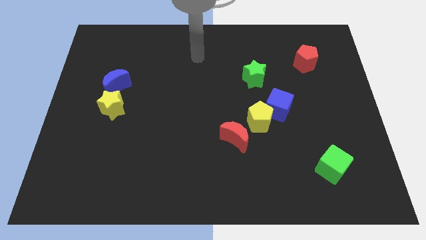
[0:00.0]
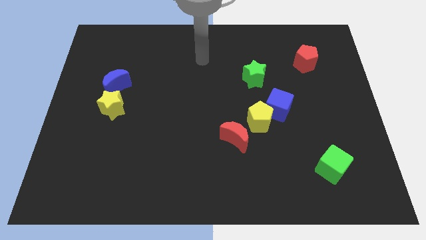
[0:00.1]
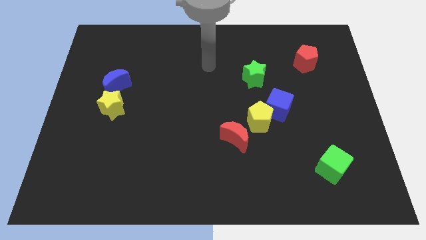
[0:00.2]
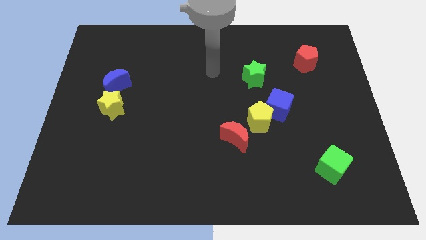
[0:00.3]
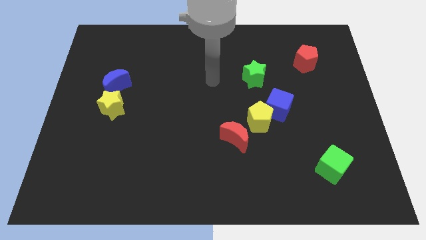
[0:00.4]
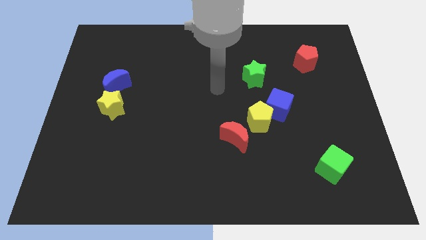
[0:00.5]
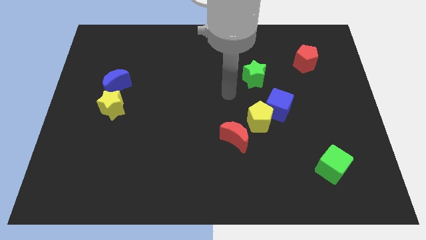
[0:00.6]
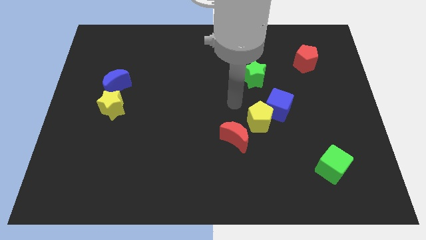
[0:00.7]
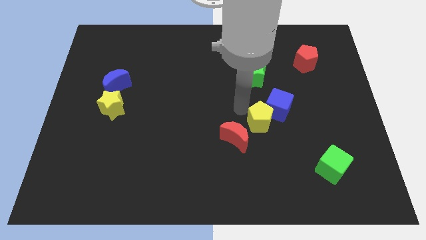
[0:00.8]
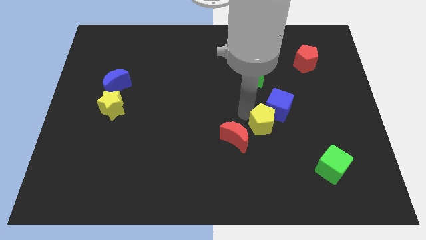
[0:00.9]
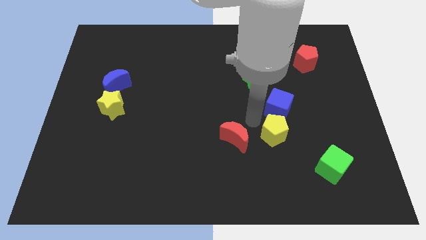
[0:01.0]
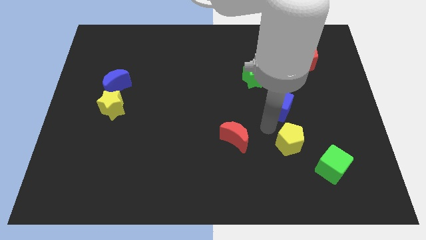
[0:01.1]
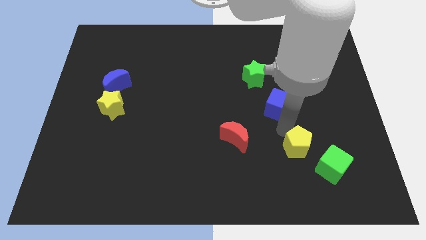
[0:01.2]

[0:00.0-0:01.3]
separate the blue cube from the yellow pentagon

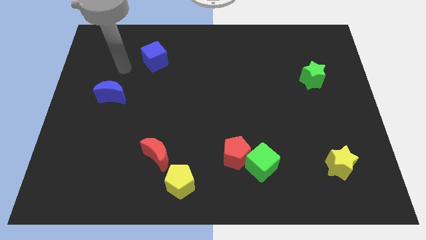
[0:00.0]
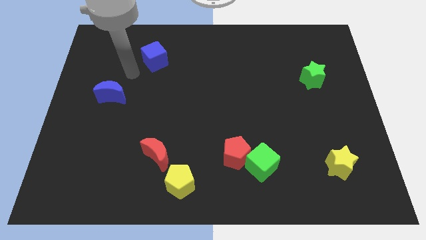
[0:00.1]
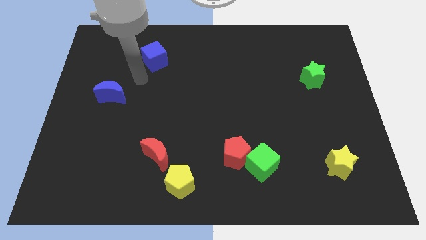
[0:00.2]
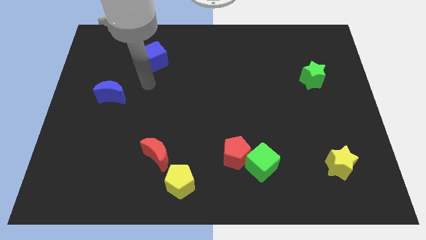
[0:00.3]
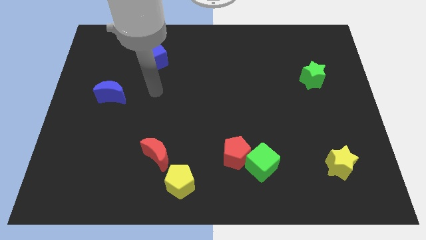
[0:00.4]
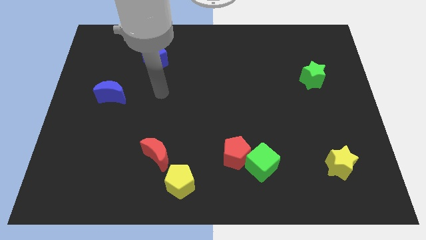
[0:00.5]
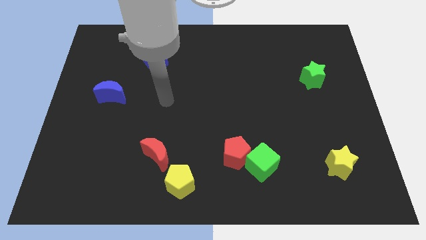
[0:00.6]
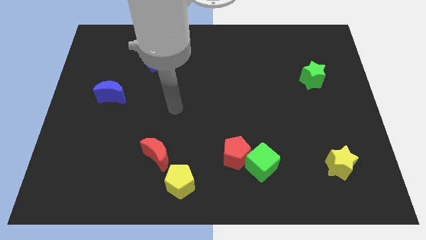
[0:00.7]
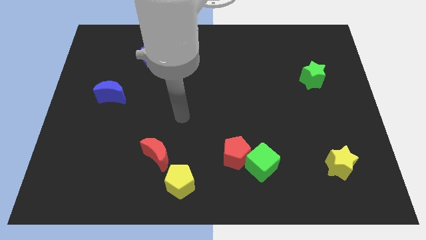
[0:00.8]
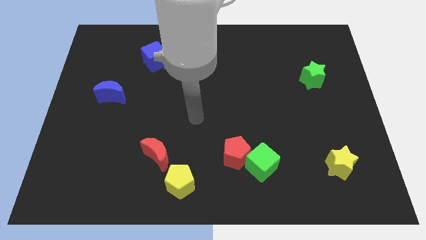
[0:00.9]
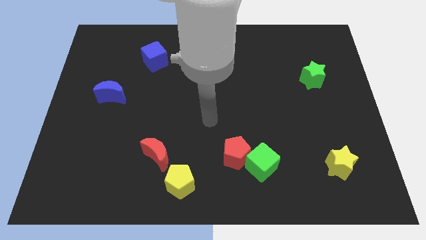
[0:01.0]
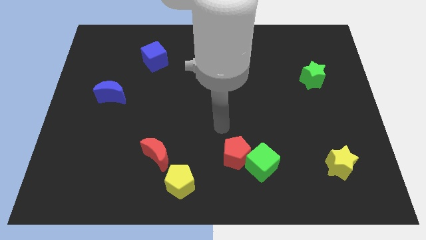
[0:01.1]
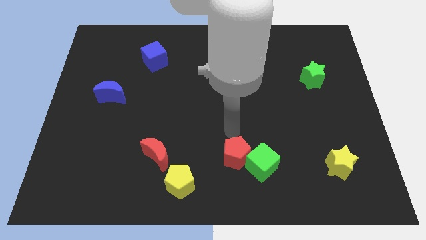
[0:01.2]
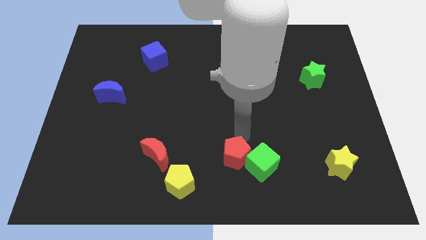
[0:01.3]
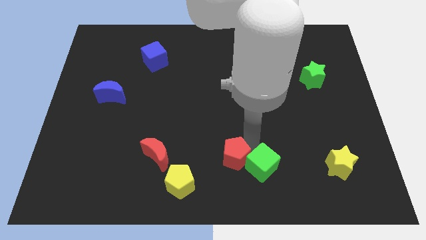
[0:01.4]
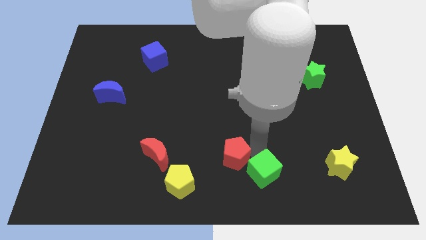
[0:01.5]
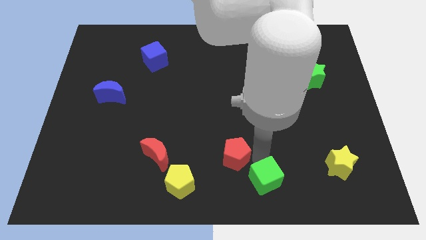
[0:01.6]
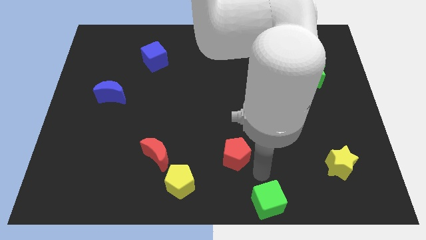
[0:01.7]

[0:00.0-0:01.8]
move the red pentagon away from the green cube

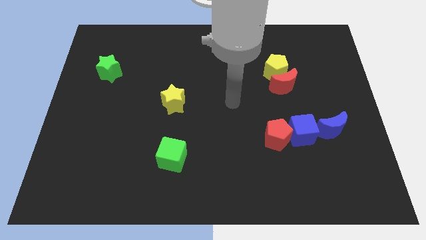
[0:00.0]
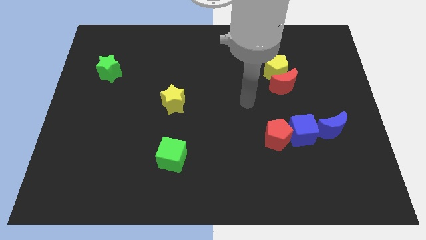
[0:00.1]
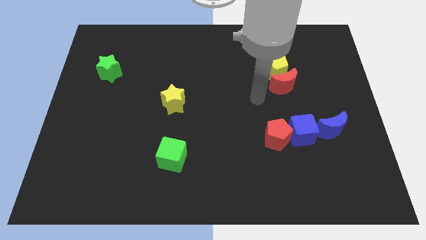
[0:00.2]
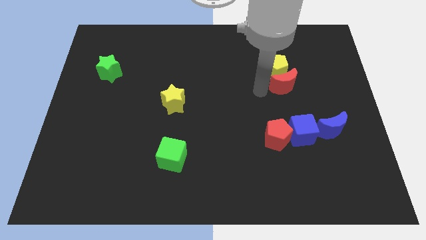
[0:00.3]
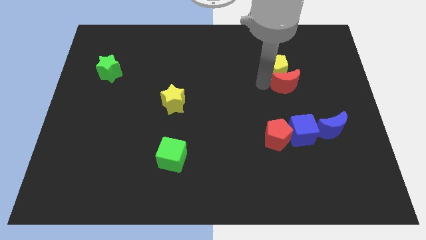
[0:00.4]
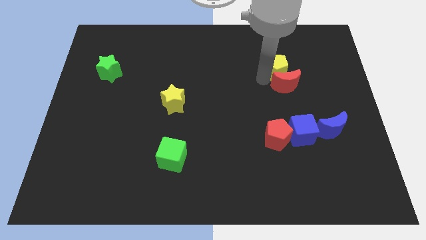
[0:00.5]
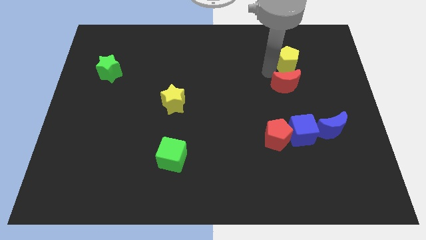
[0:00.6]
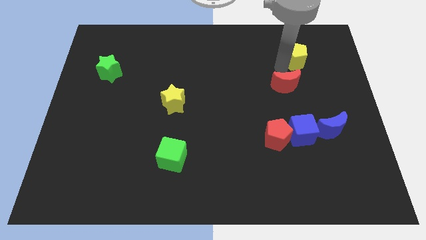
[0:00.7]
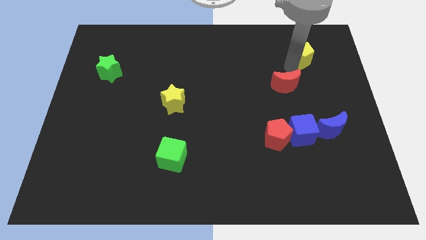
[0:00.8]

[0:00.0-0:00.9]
separate the red moon from the yellow pentagon

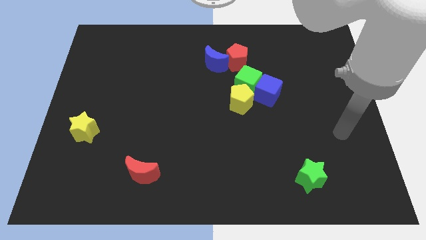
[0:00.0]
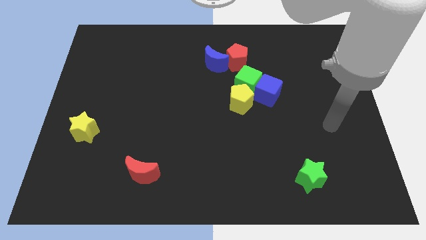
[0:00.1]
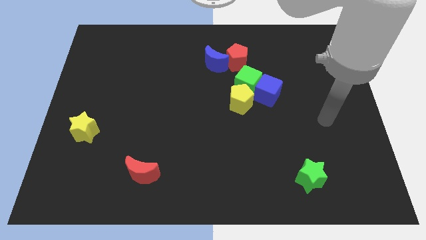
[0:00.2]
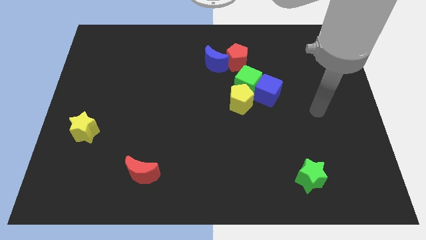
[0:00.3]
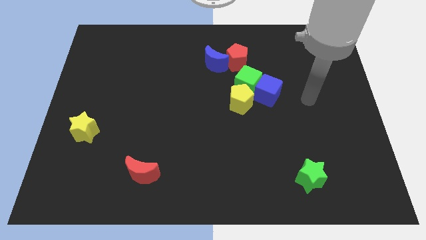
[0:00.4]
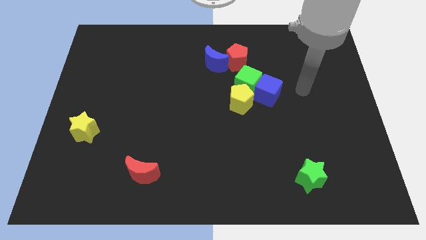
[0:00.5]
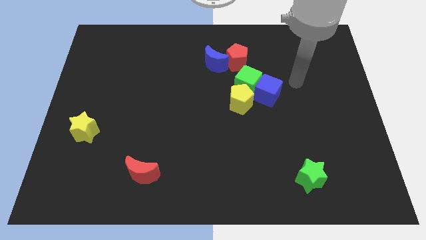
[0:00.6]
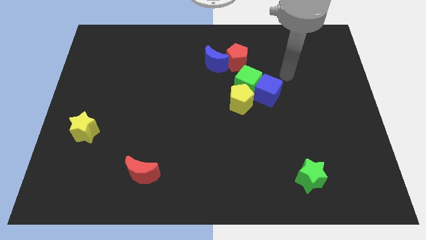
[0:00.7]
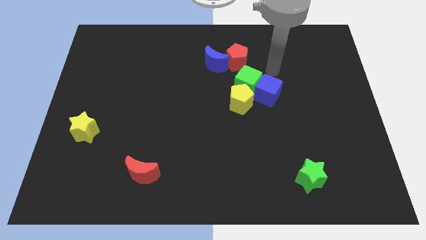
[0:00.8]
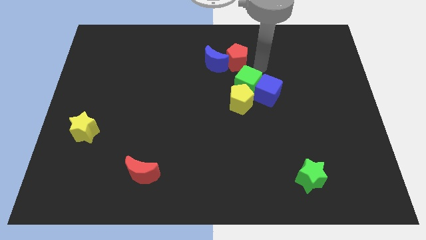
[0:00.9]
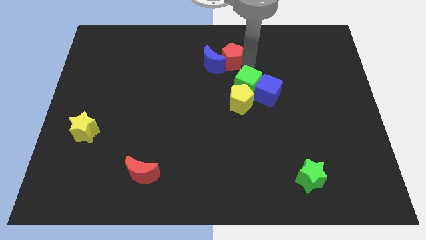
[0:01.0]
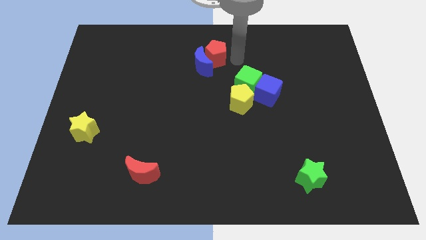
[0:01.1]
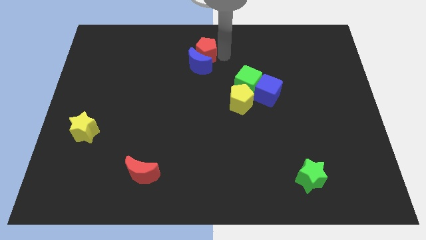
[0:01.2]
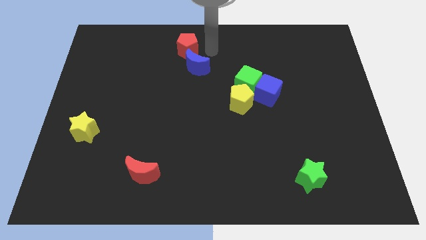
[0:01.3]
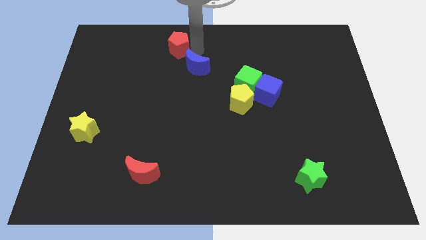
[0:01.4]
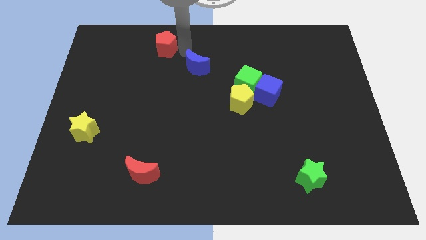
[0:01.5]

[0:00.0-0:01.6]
move the blue moon away from the red pentagon

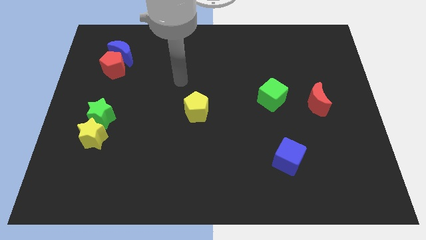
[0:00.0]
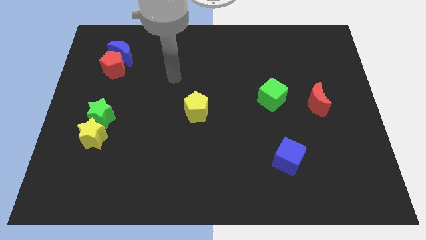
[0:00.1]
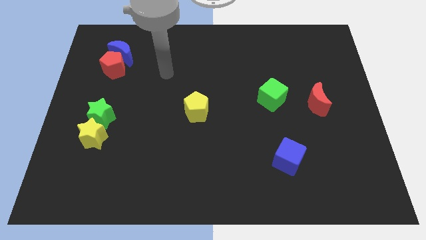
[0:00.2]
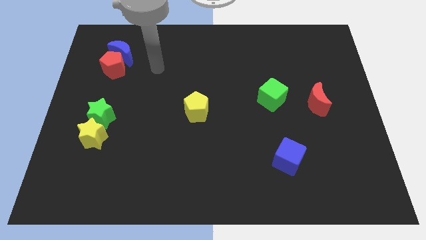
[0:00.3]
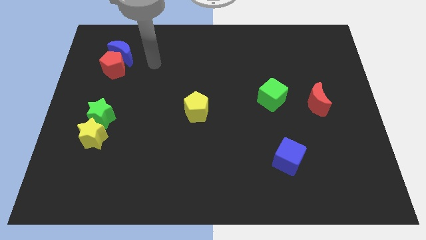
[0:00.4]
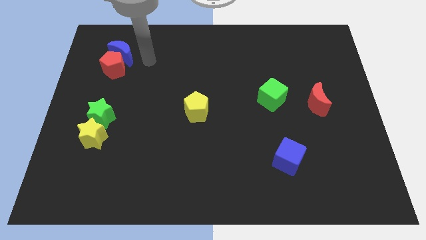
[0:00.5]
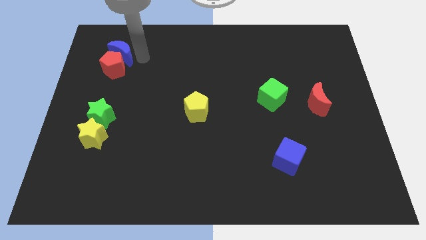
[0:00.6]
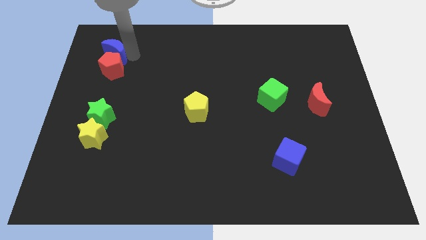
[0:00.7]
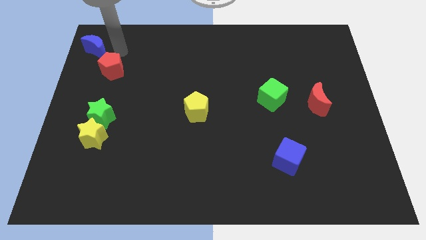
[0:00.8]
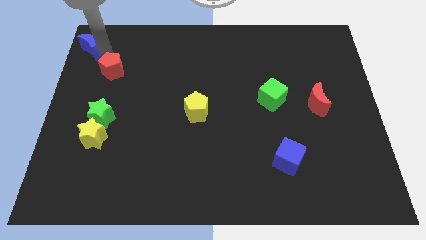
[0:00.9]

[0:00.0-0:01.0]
pull the red pentagon apart from the blue moon

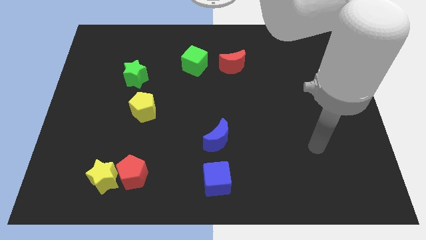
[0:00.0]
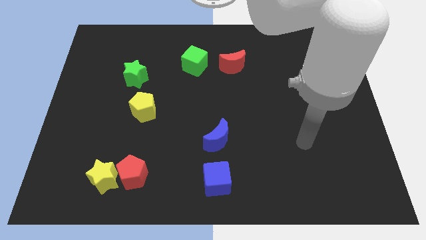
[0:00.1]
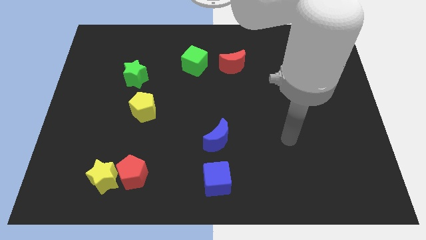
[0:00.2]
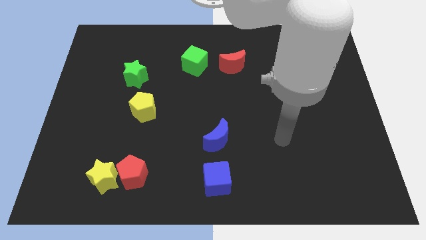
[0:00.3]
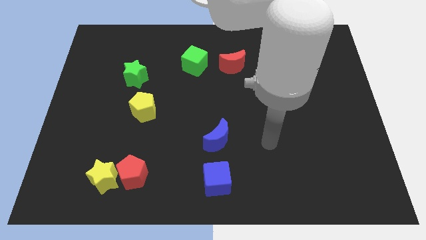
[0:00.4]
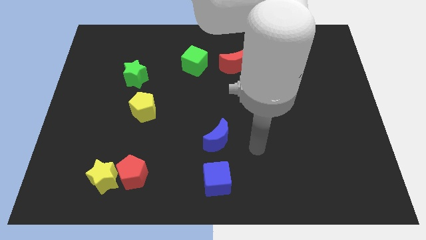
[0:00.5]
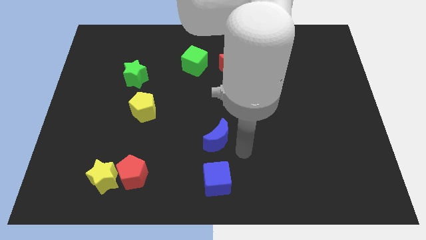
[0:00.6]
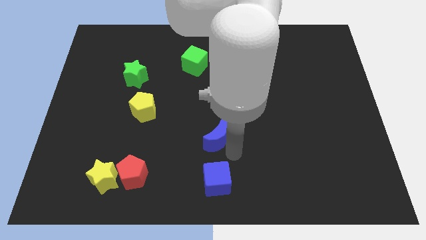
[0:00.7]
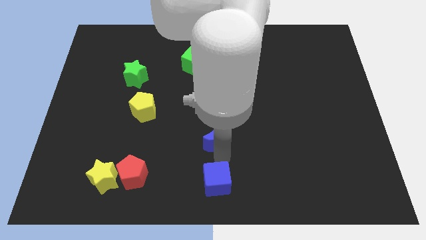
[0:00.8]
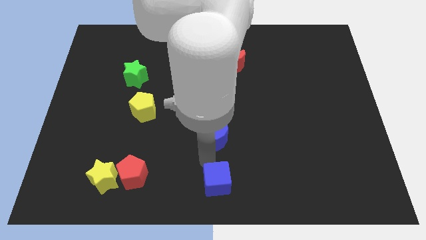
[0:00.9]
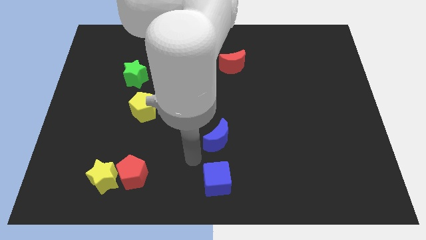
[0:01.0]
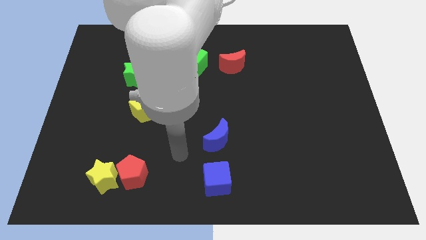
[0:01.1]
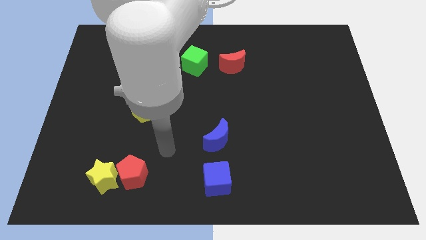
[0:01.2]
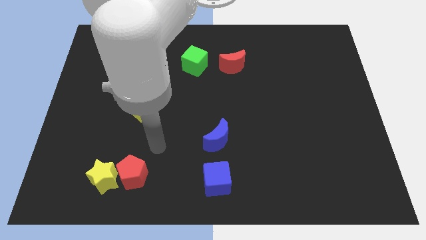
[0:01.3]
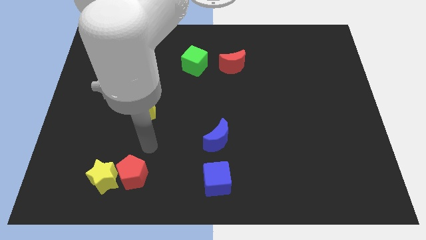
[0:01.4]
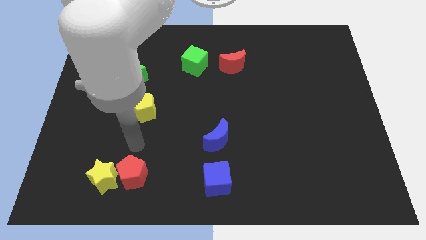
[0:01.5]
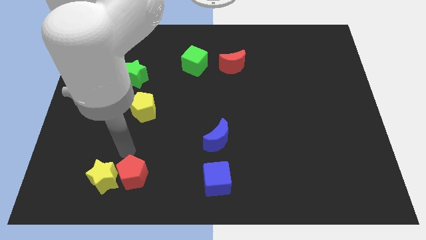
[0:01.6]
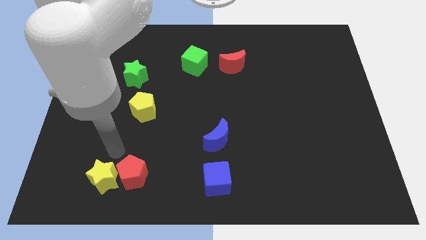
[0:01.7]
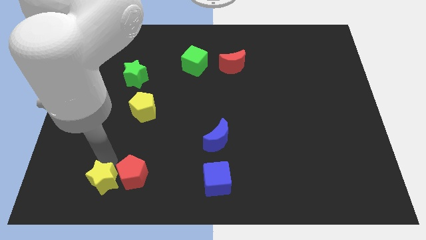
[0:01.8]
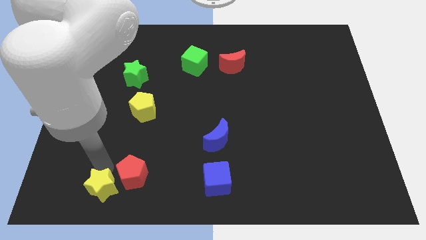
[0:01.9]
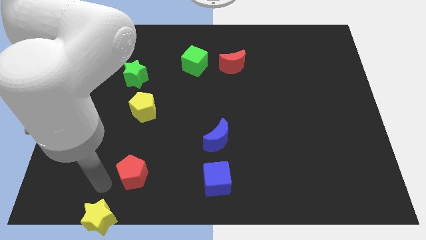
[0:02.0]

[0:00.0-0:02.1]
move the red pentagon away from the yellow star

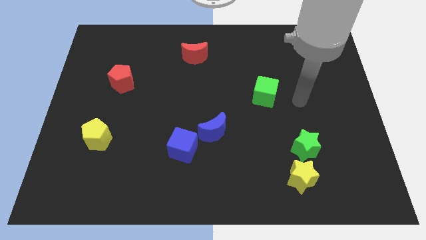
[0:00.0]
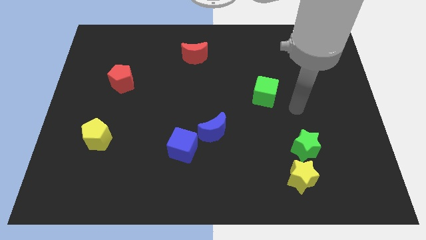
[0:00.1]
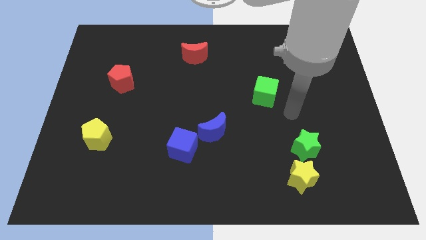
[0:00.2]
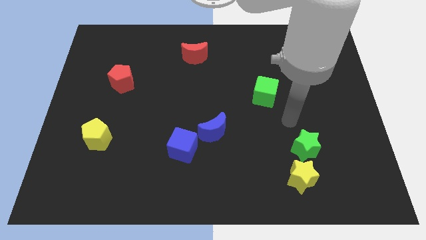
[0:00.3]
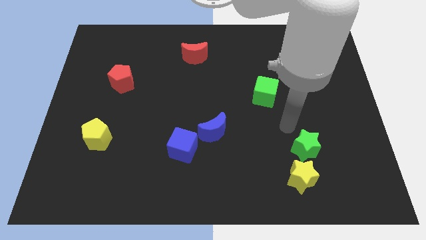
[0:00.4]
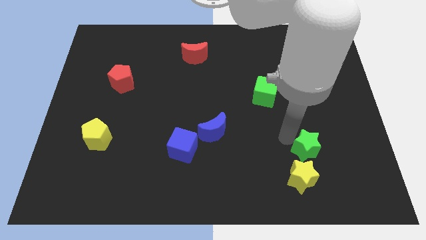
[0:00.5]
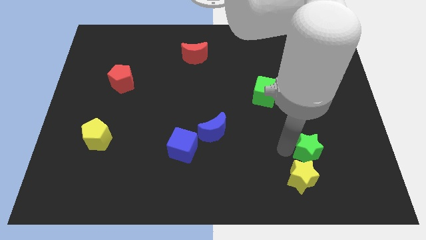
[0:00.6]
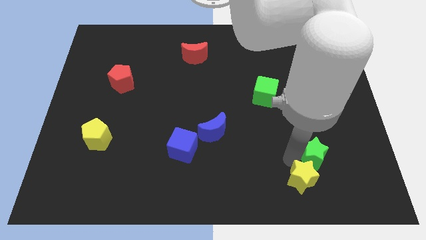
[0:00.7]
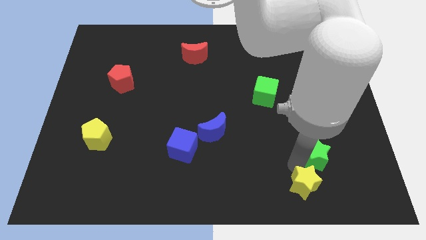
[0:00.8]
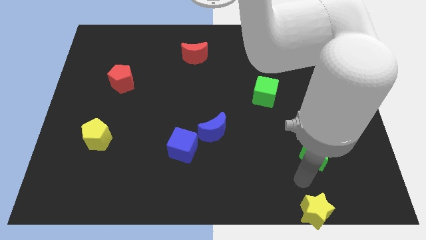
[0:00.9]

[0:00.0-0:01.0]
separate the green star from the yellow star
